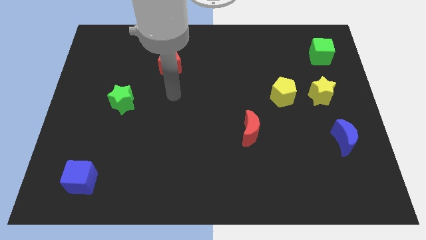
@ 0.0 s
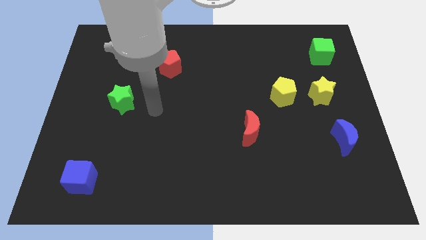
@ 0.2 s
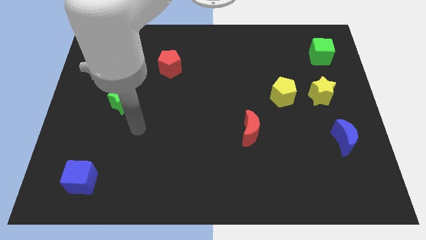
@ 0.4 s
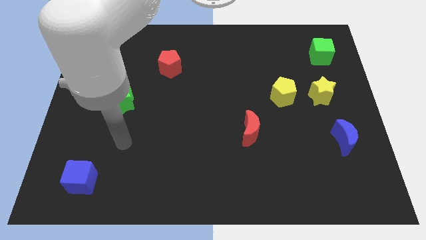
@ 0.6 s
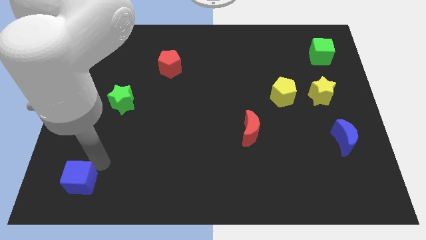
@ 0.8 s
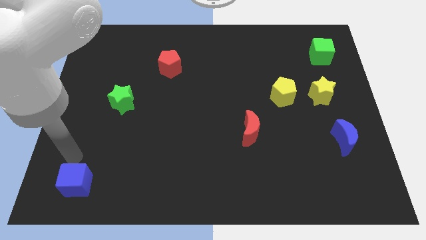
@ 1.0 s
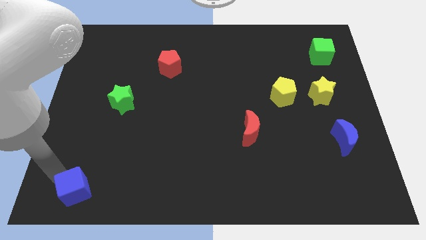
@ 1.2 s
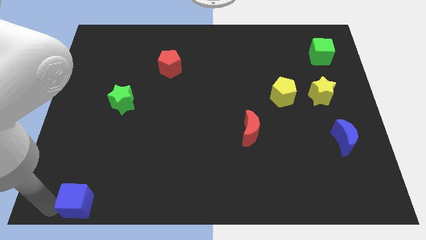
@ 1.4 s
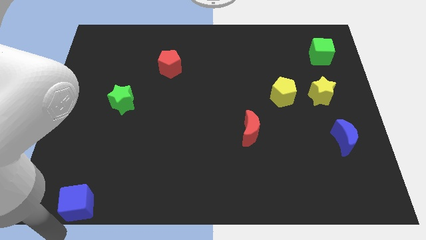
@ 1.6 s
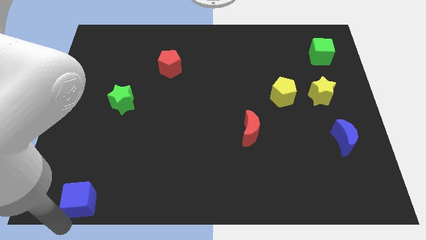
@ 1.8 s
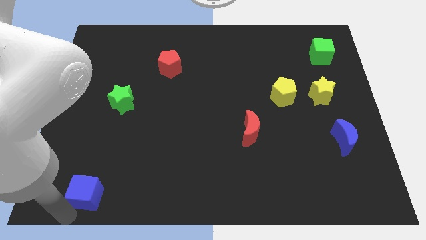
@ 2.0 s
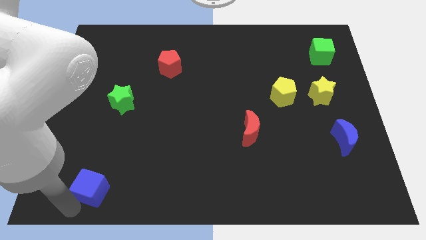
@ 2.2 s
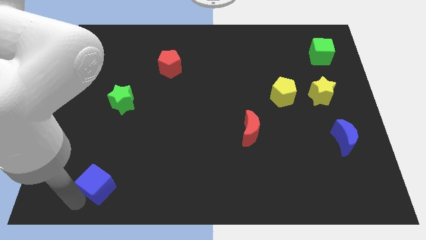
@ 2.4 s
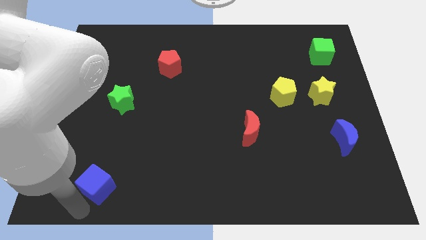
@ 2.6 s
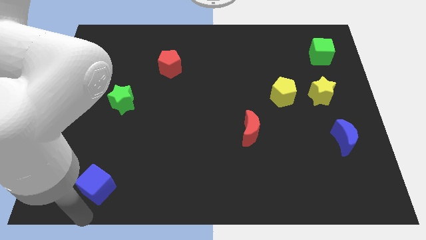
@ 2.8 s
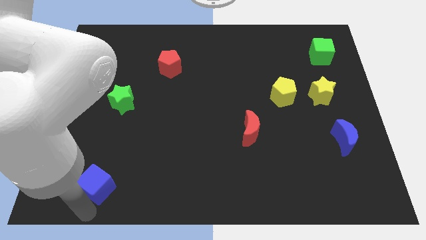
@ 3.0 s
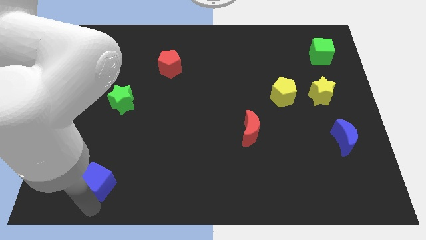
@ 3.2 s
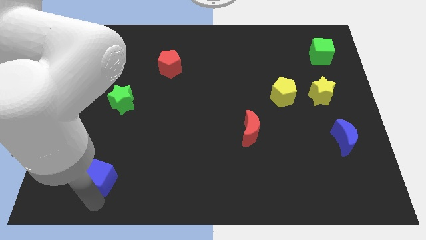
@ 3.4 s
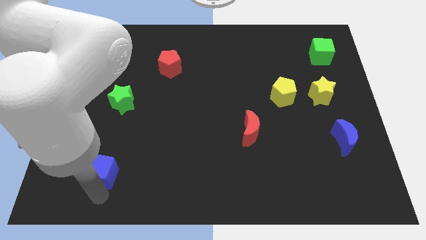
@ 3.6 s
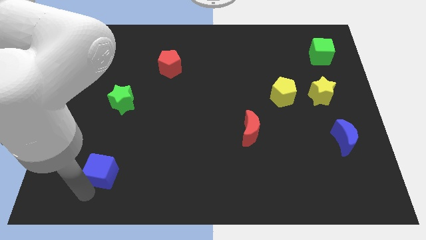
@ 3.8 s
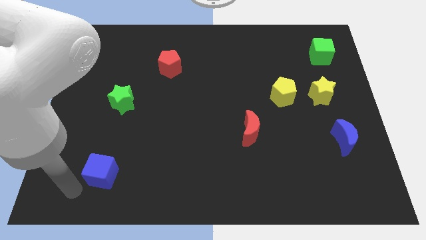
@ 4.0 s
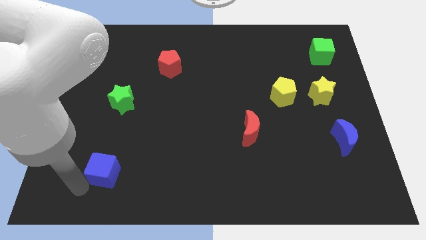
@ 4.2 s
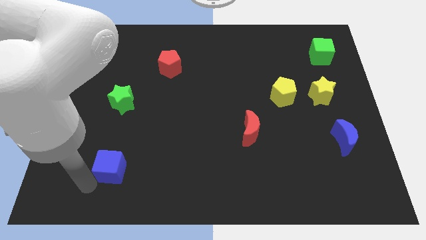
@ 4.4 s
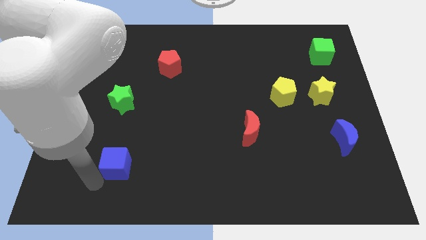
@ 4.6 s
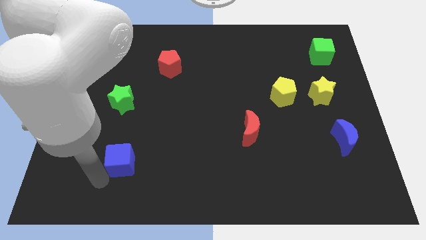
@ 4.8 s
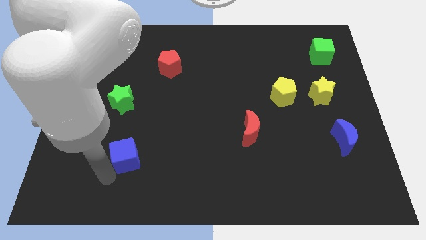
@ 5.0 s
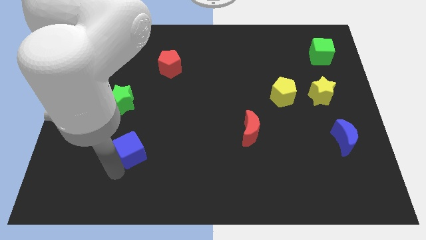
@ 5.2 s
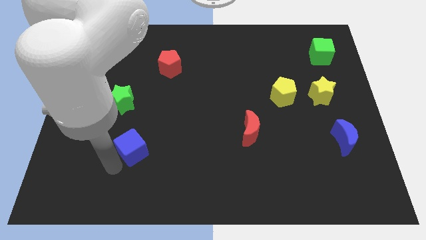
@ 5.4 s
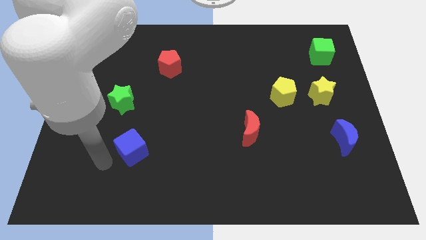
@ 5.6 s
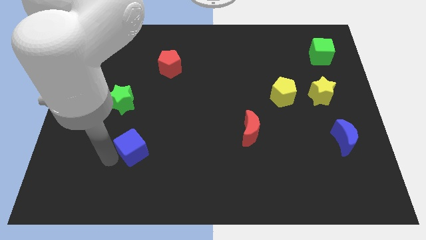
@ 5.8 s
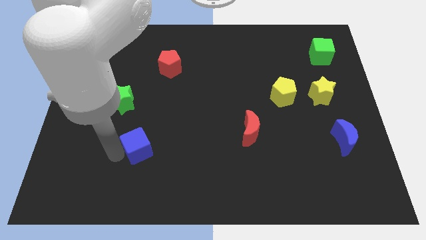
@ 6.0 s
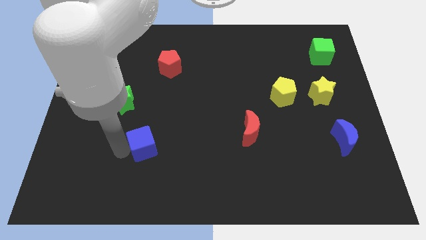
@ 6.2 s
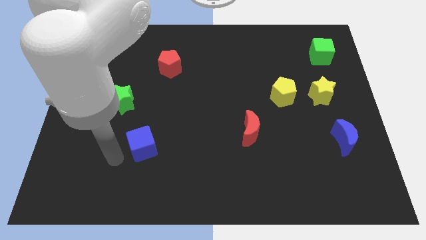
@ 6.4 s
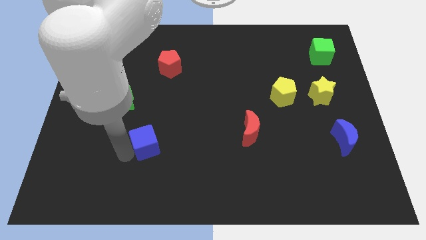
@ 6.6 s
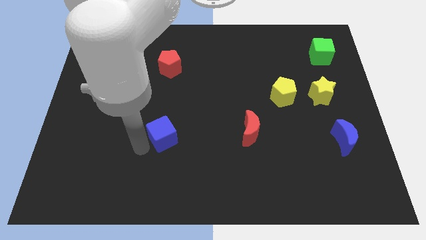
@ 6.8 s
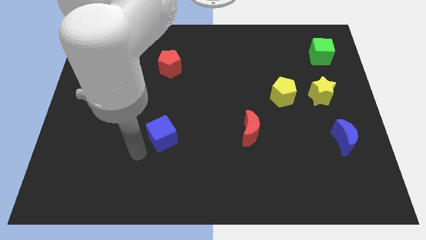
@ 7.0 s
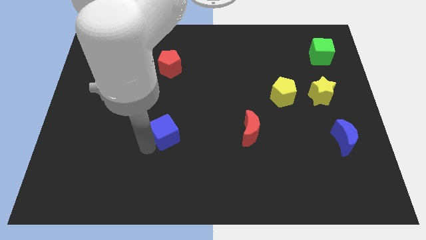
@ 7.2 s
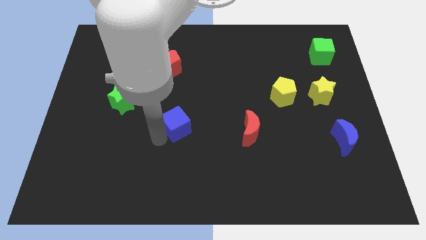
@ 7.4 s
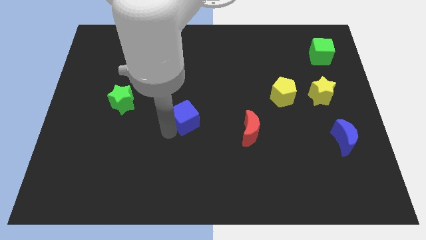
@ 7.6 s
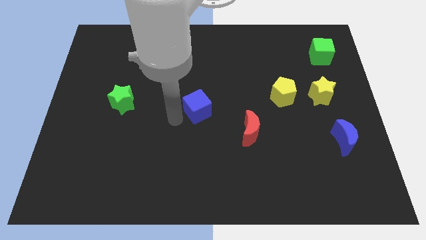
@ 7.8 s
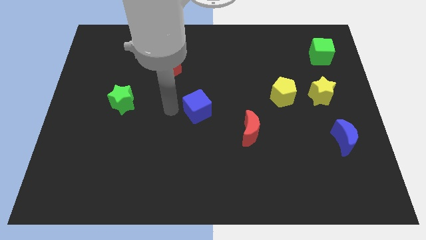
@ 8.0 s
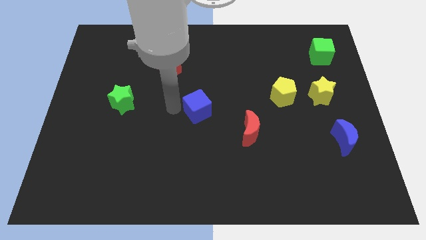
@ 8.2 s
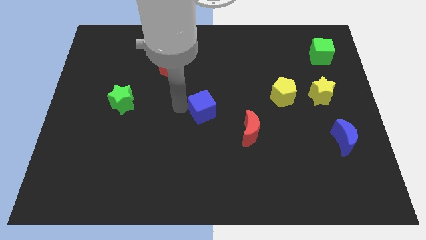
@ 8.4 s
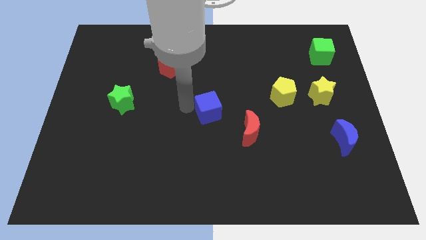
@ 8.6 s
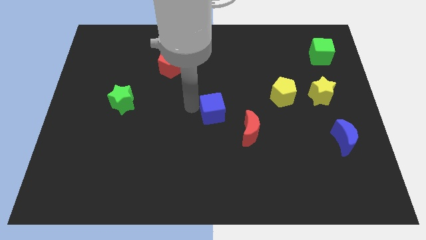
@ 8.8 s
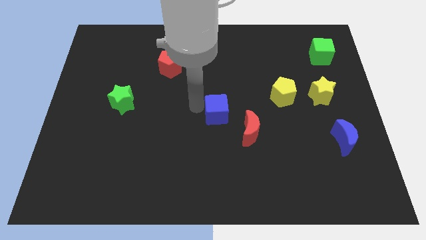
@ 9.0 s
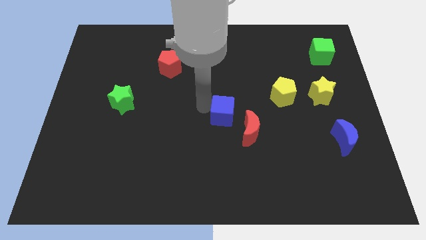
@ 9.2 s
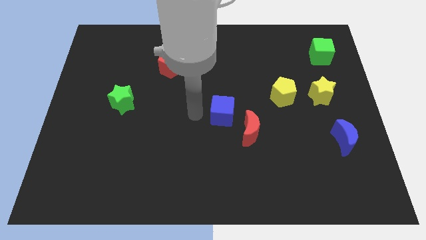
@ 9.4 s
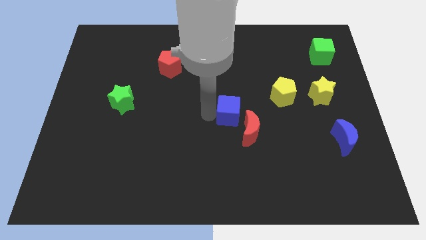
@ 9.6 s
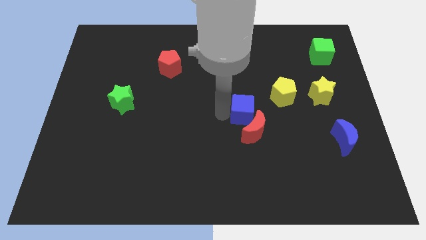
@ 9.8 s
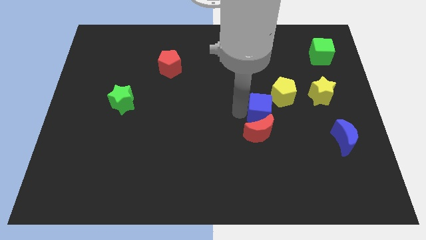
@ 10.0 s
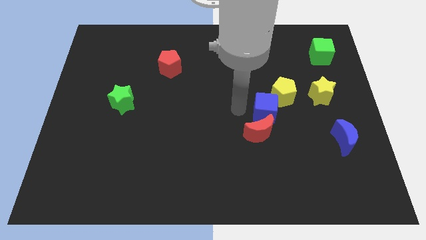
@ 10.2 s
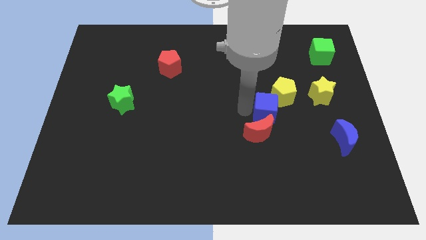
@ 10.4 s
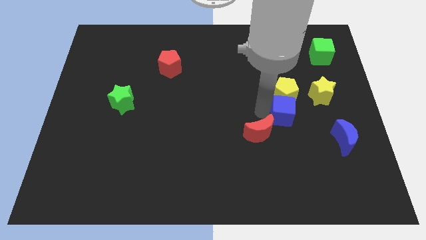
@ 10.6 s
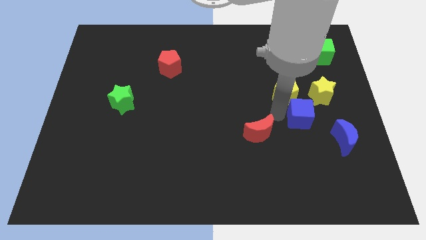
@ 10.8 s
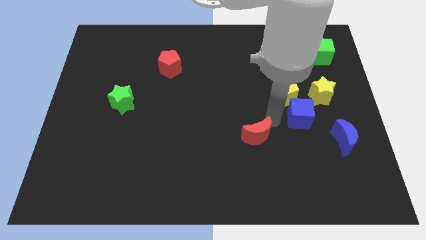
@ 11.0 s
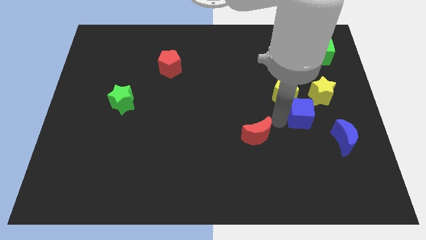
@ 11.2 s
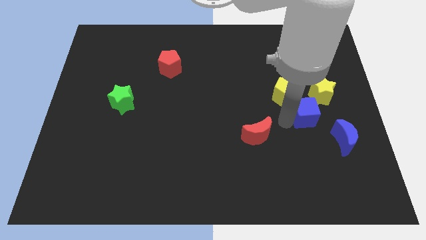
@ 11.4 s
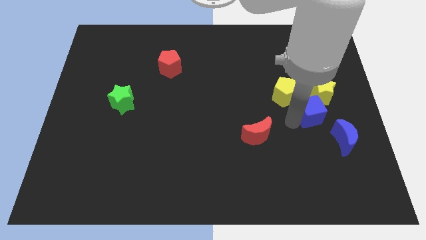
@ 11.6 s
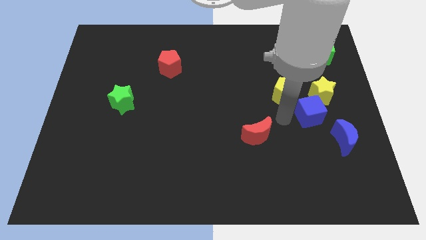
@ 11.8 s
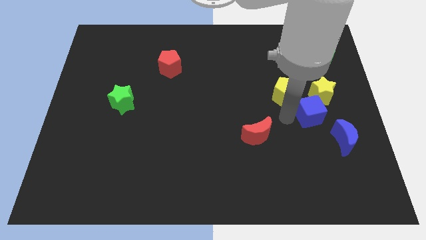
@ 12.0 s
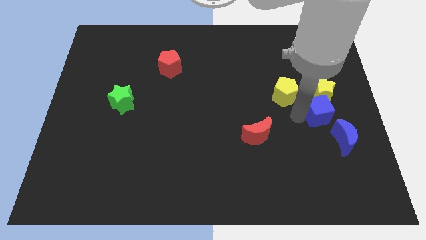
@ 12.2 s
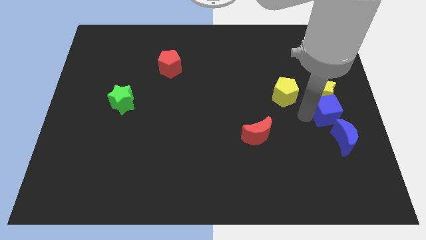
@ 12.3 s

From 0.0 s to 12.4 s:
move the blue cube to the right side

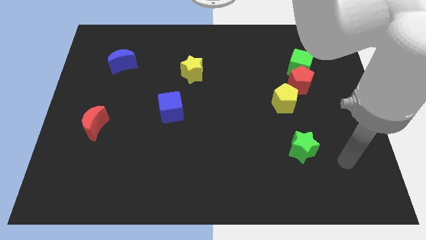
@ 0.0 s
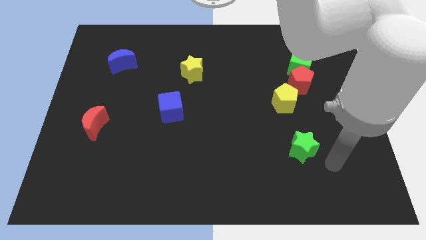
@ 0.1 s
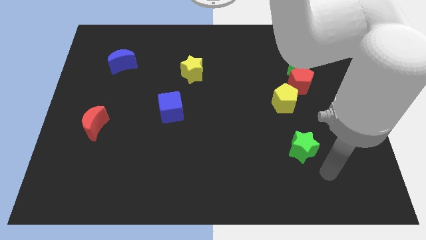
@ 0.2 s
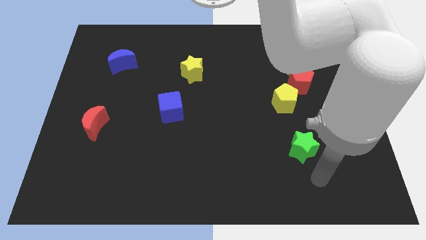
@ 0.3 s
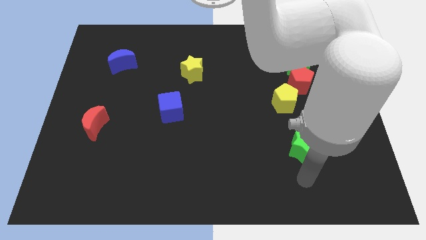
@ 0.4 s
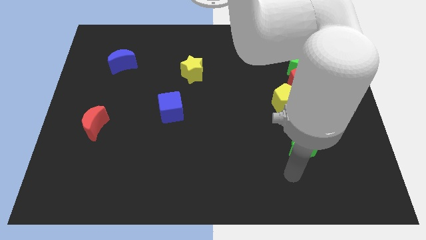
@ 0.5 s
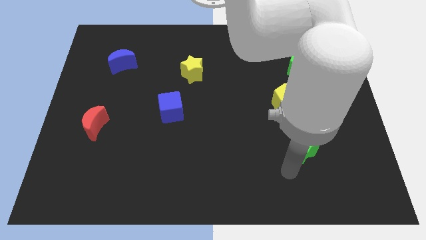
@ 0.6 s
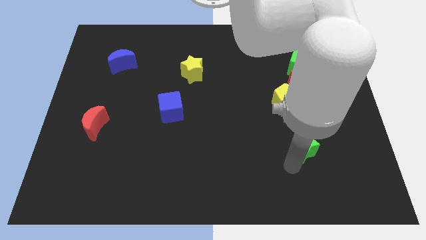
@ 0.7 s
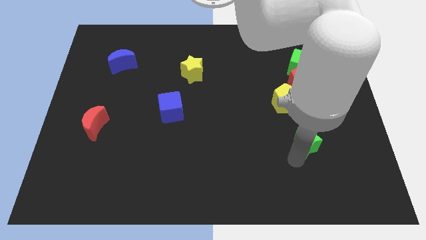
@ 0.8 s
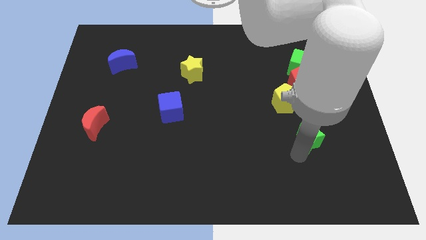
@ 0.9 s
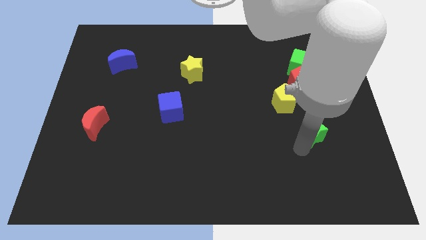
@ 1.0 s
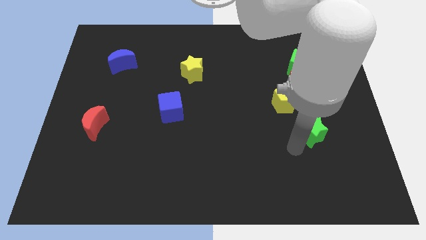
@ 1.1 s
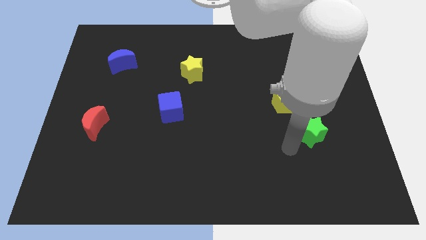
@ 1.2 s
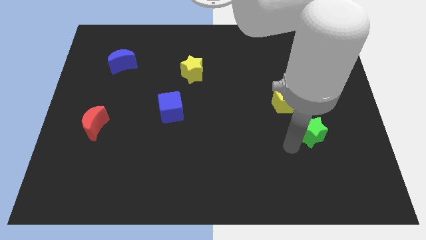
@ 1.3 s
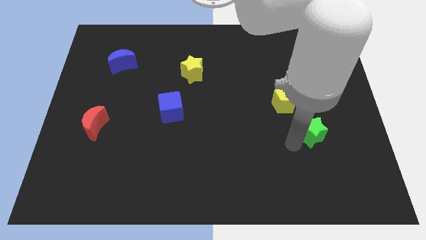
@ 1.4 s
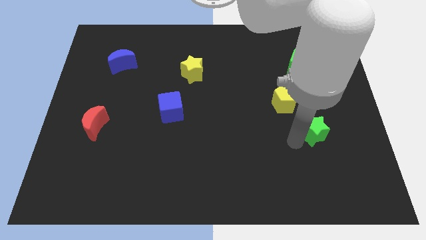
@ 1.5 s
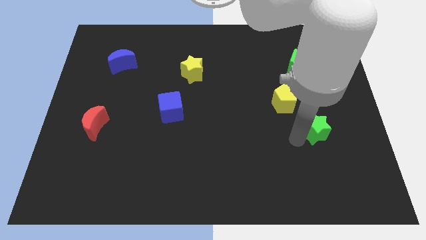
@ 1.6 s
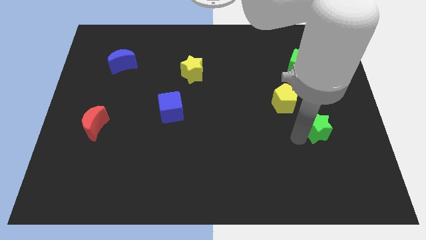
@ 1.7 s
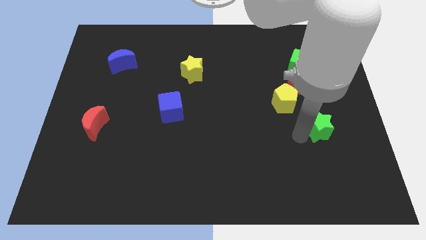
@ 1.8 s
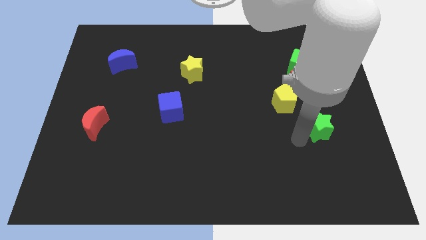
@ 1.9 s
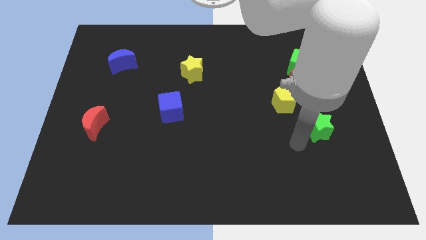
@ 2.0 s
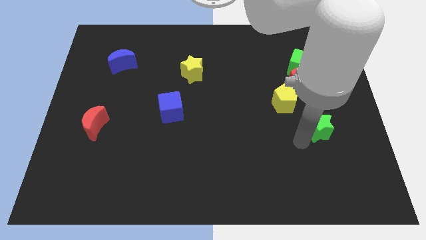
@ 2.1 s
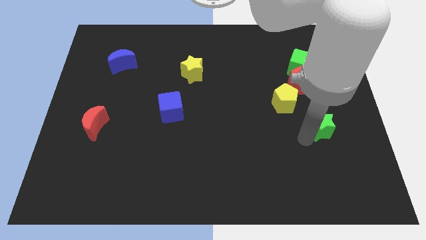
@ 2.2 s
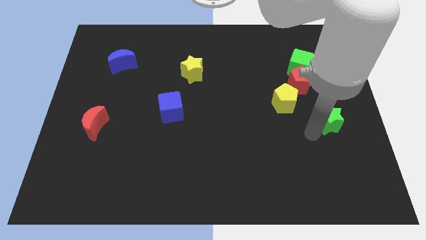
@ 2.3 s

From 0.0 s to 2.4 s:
slide the green star to the center right
